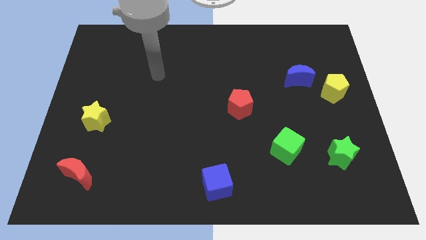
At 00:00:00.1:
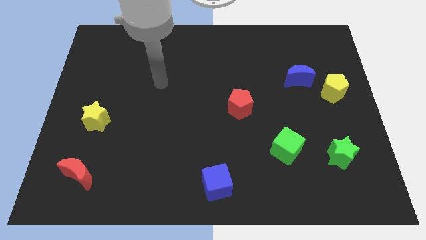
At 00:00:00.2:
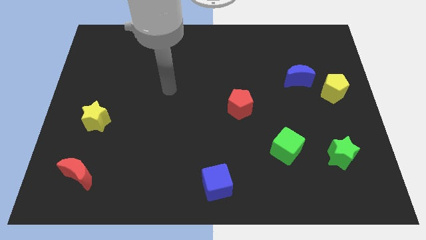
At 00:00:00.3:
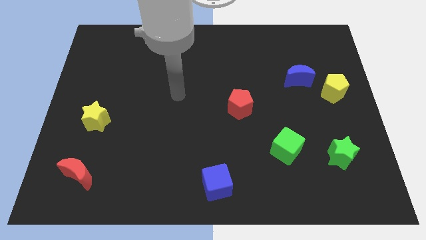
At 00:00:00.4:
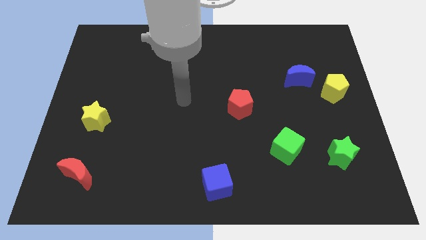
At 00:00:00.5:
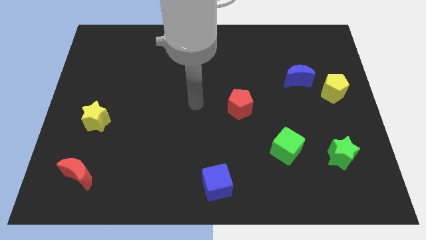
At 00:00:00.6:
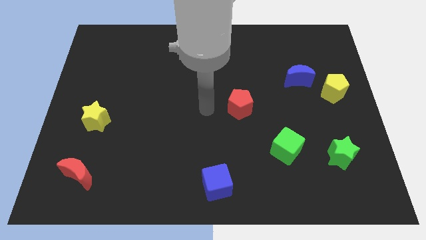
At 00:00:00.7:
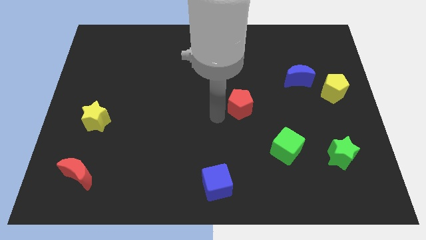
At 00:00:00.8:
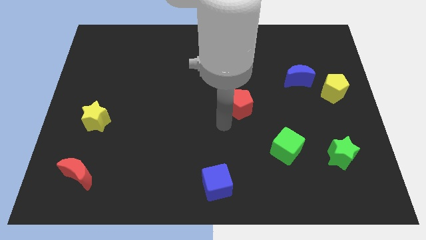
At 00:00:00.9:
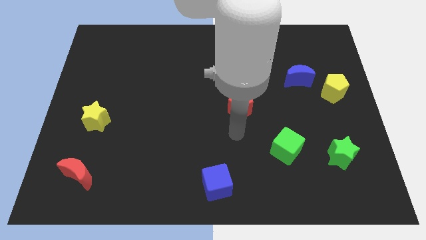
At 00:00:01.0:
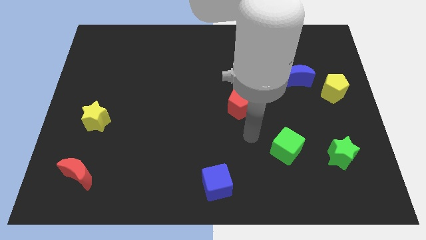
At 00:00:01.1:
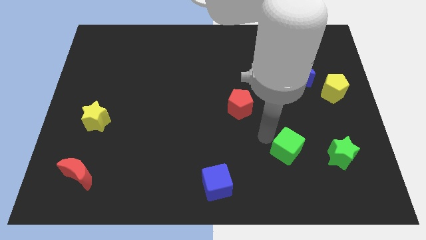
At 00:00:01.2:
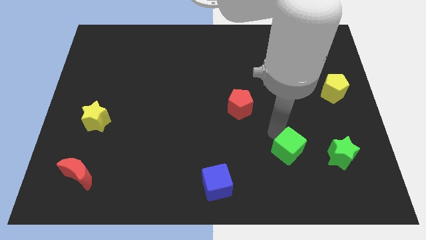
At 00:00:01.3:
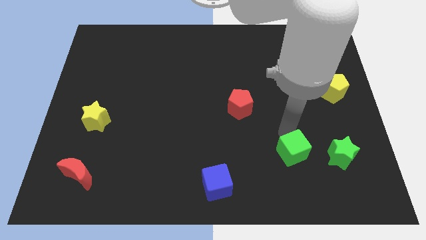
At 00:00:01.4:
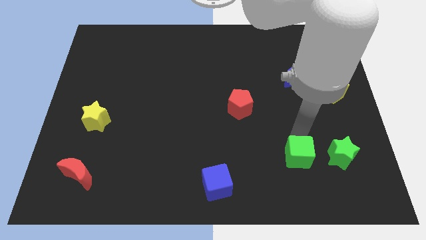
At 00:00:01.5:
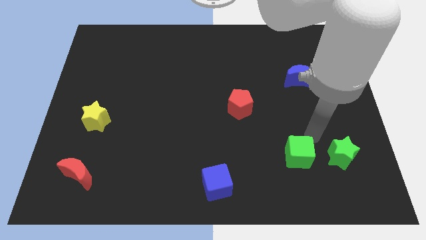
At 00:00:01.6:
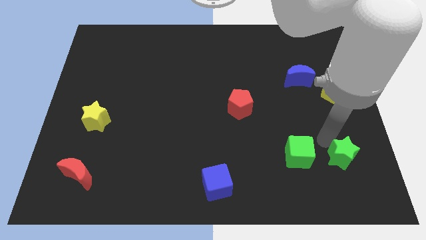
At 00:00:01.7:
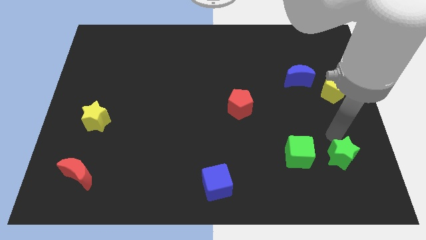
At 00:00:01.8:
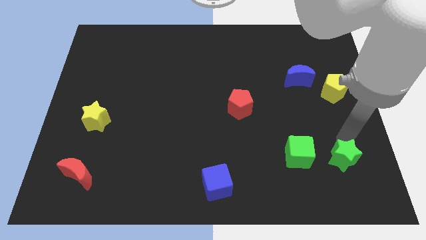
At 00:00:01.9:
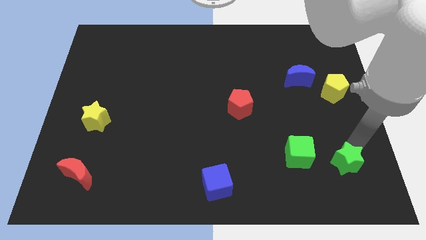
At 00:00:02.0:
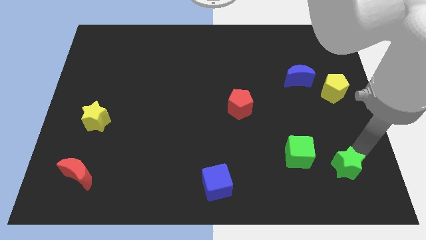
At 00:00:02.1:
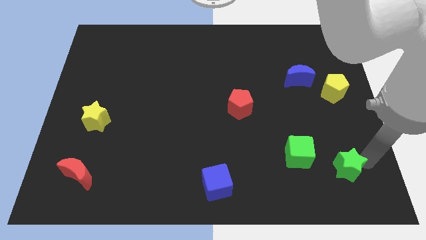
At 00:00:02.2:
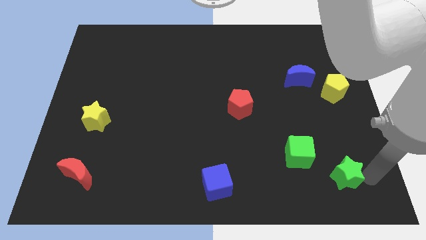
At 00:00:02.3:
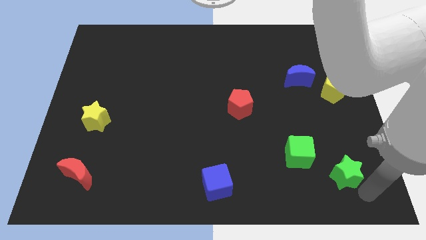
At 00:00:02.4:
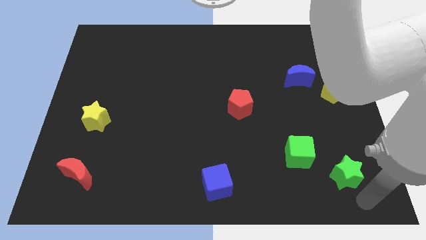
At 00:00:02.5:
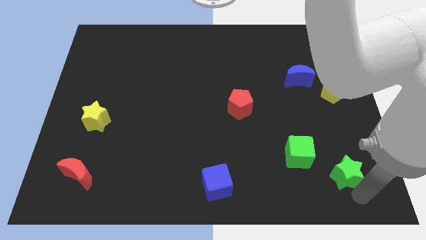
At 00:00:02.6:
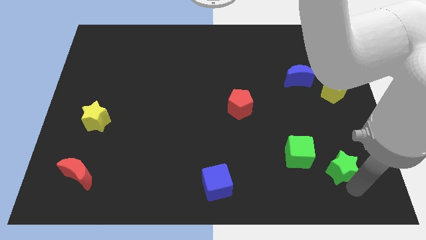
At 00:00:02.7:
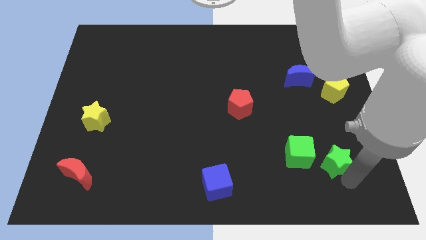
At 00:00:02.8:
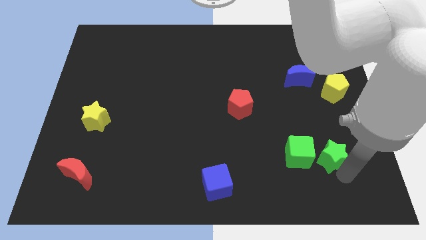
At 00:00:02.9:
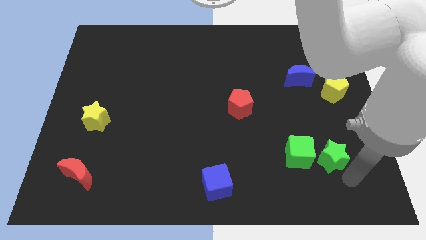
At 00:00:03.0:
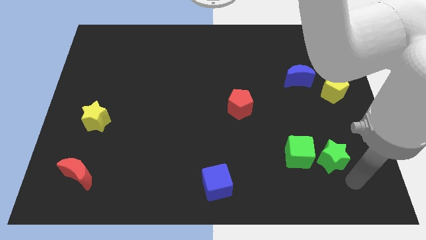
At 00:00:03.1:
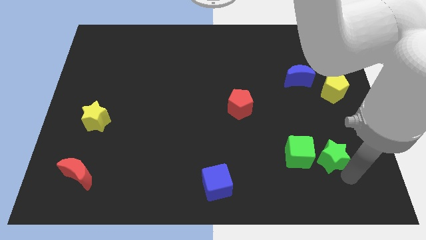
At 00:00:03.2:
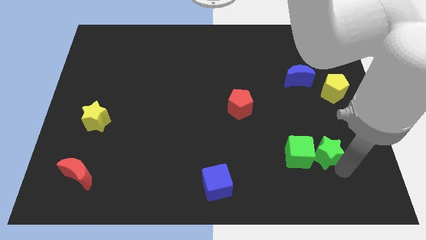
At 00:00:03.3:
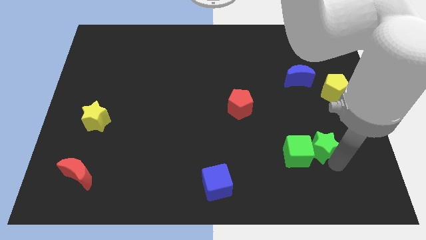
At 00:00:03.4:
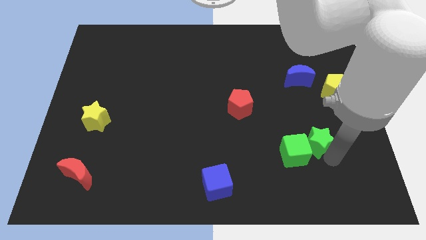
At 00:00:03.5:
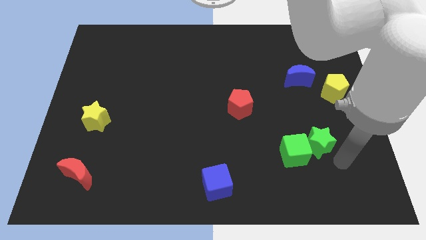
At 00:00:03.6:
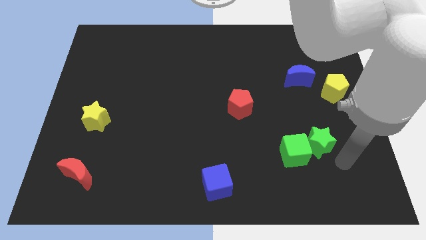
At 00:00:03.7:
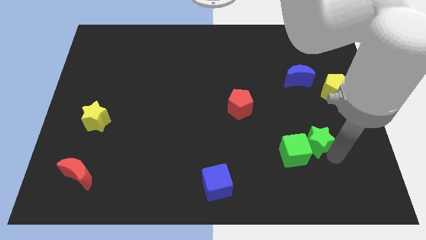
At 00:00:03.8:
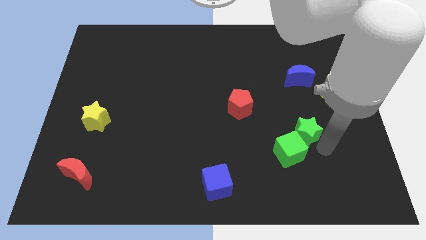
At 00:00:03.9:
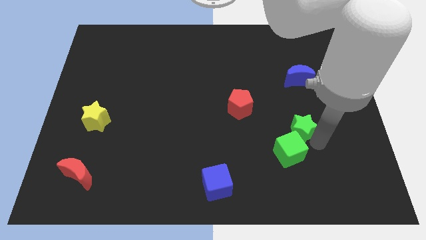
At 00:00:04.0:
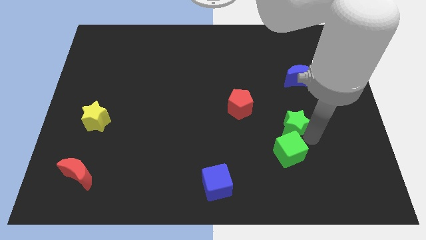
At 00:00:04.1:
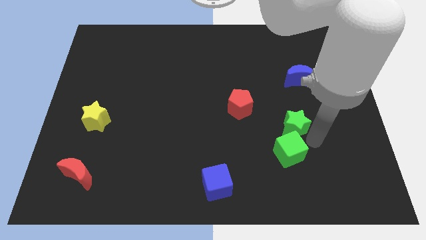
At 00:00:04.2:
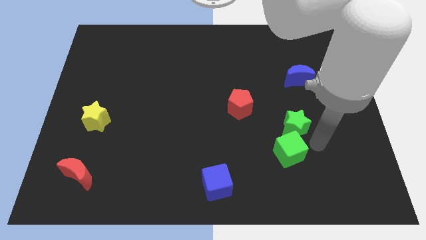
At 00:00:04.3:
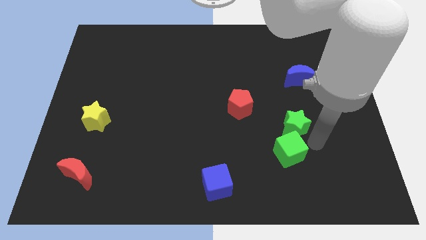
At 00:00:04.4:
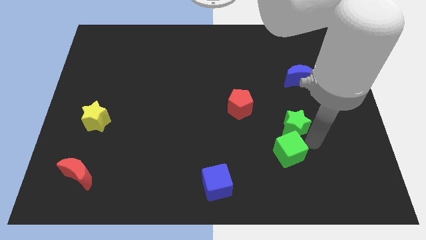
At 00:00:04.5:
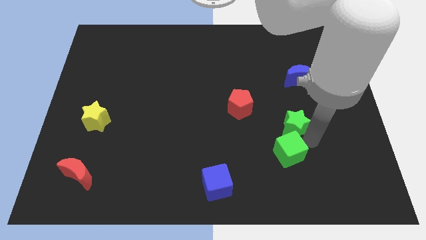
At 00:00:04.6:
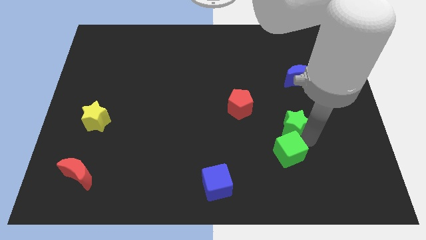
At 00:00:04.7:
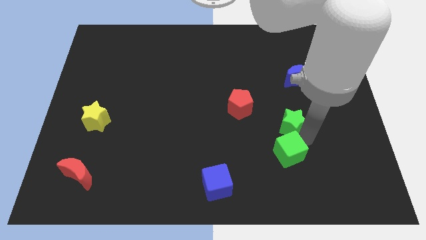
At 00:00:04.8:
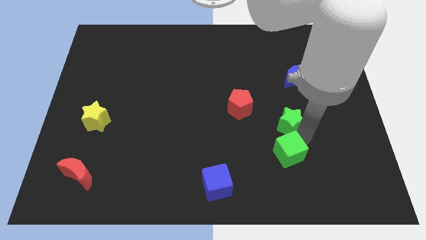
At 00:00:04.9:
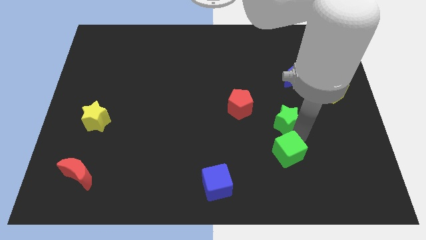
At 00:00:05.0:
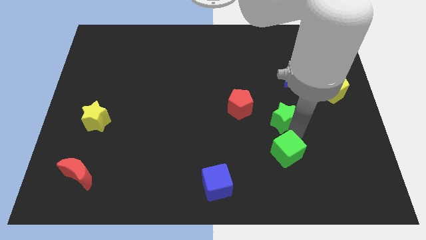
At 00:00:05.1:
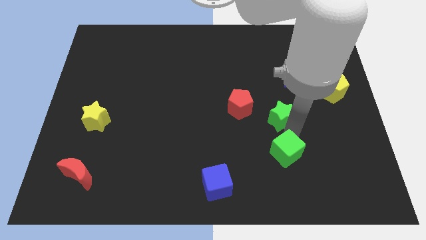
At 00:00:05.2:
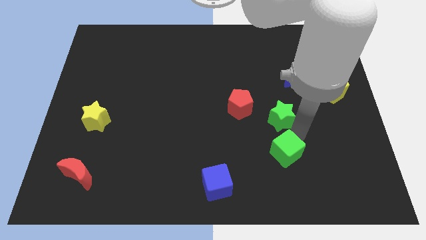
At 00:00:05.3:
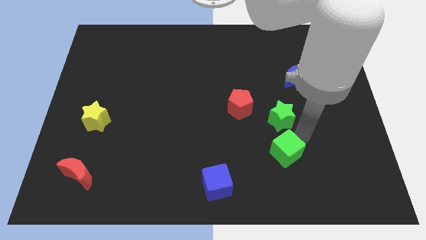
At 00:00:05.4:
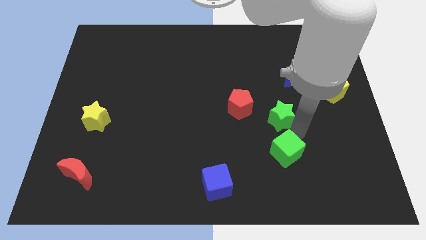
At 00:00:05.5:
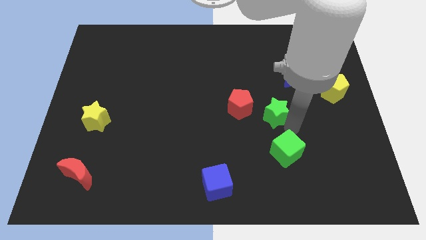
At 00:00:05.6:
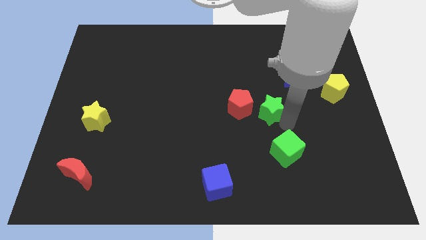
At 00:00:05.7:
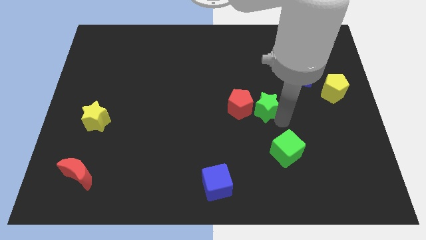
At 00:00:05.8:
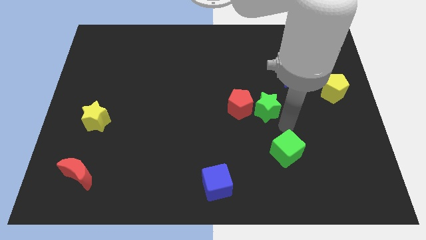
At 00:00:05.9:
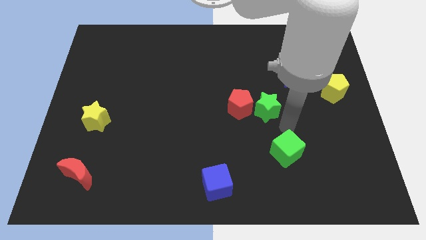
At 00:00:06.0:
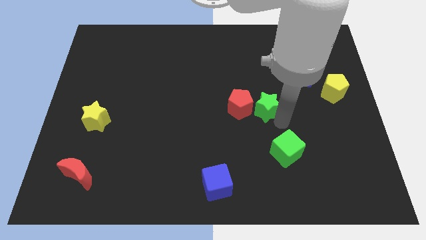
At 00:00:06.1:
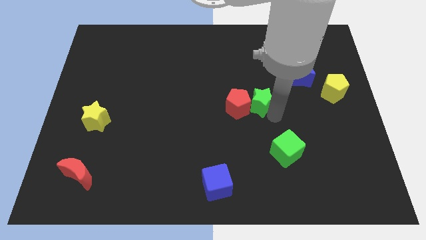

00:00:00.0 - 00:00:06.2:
slide the green star up and to the left

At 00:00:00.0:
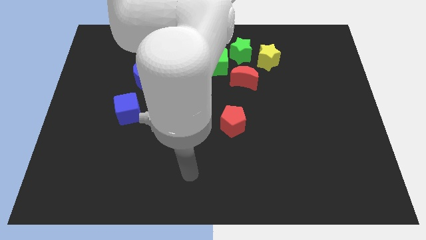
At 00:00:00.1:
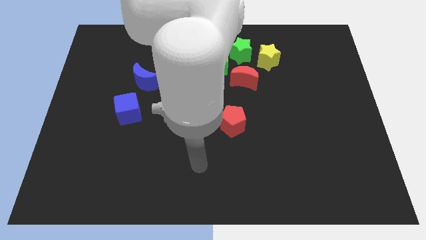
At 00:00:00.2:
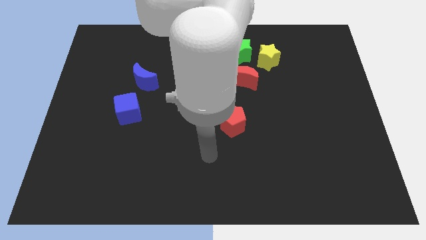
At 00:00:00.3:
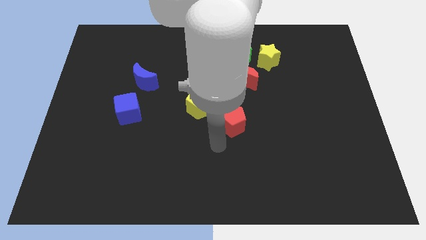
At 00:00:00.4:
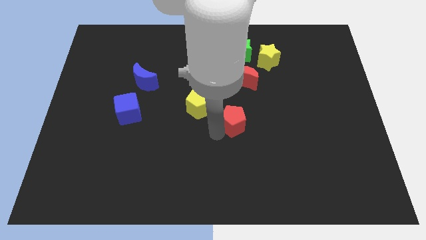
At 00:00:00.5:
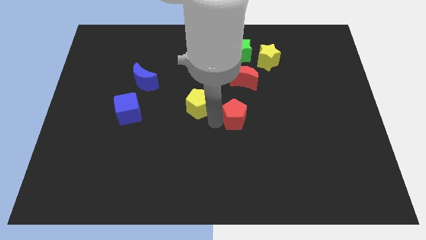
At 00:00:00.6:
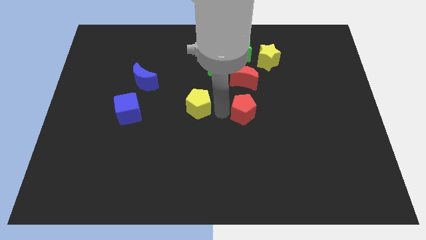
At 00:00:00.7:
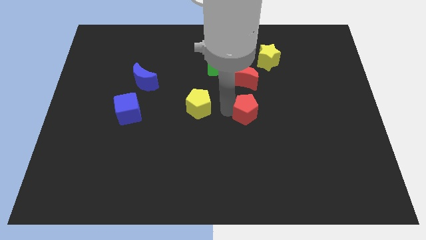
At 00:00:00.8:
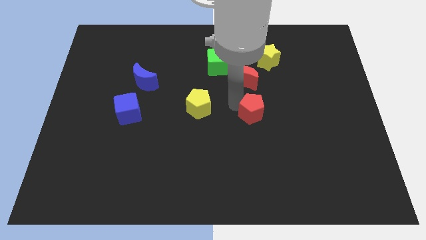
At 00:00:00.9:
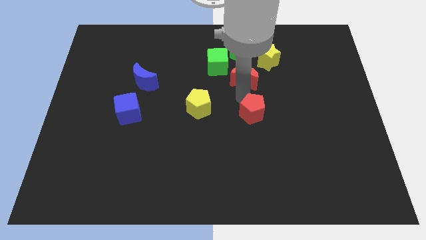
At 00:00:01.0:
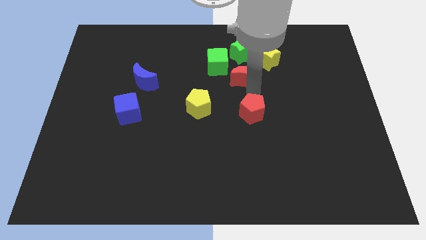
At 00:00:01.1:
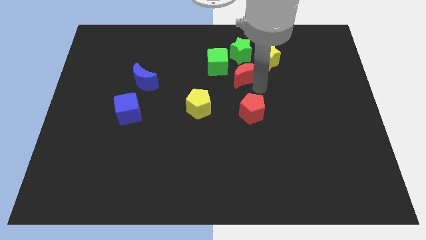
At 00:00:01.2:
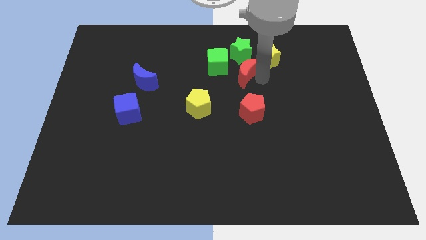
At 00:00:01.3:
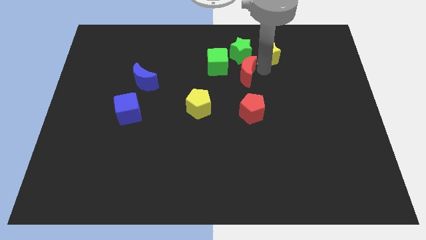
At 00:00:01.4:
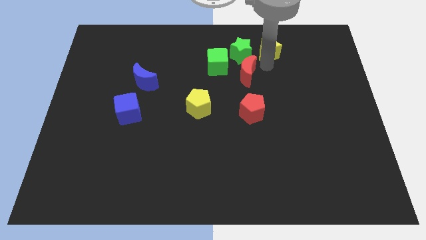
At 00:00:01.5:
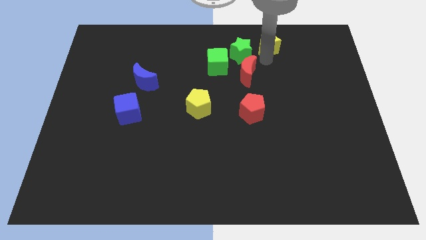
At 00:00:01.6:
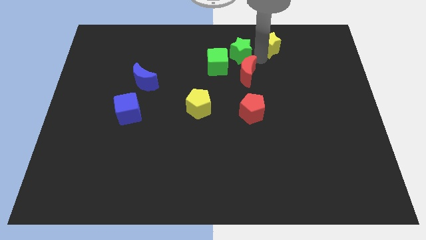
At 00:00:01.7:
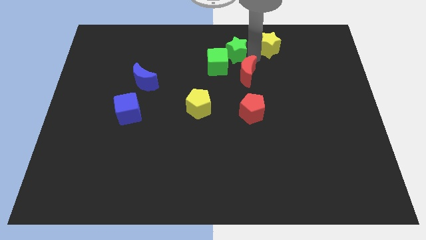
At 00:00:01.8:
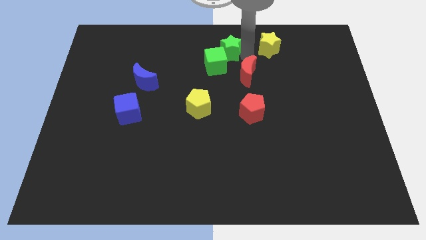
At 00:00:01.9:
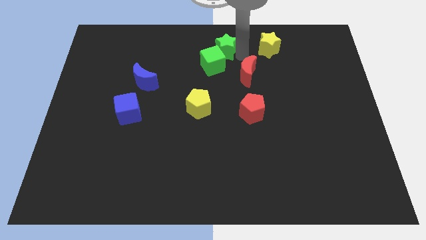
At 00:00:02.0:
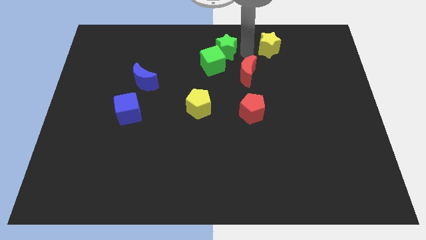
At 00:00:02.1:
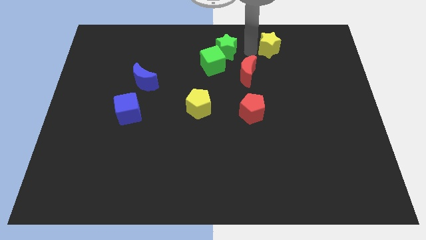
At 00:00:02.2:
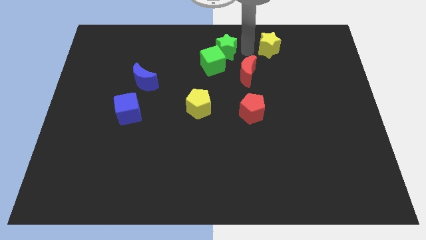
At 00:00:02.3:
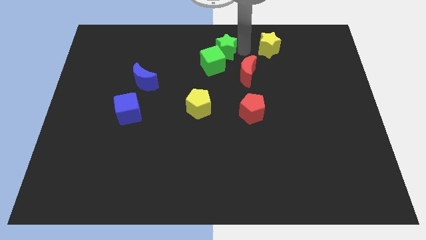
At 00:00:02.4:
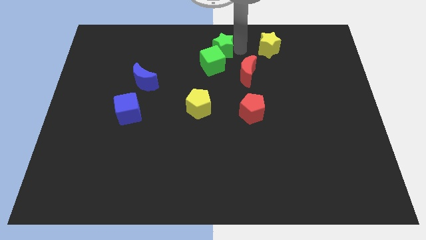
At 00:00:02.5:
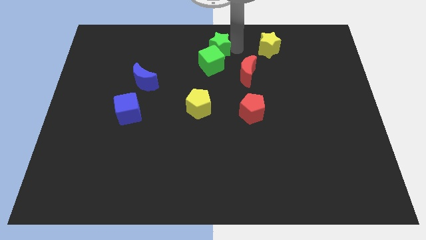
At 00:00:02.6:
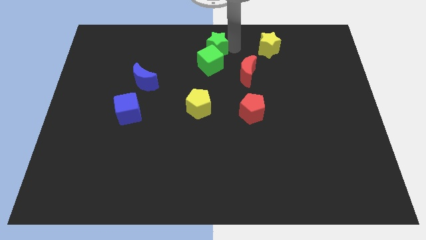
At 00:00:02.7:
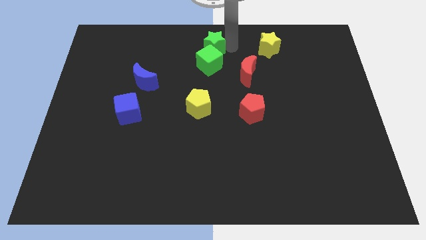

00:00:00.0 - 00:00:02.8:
move the green star to the left a bit
